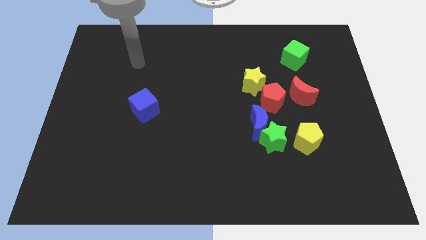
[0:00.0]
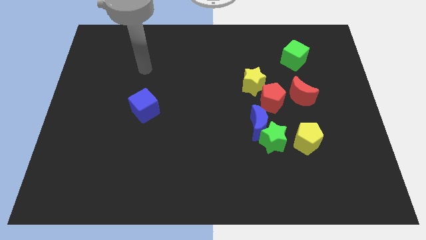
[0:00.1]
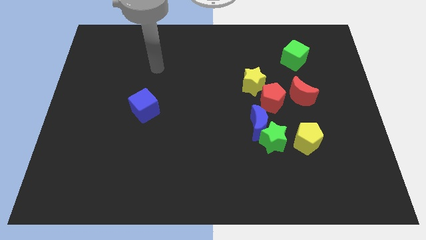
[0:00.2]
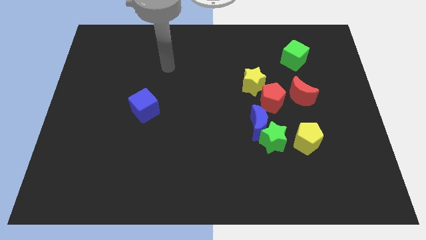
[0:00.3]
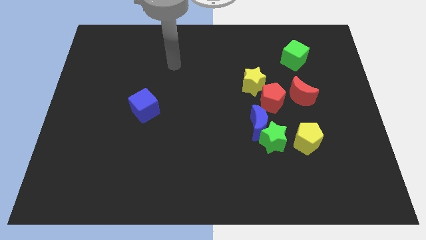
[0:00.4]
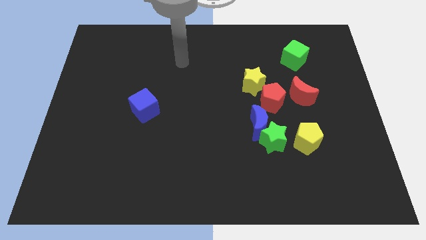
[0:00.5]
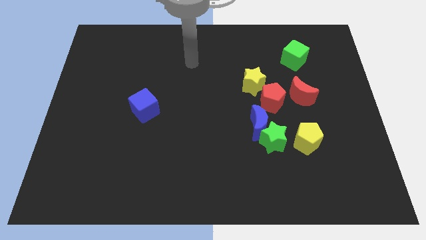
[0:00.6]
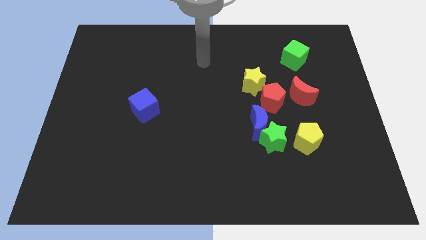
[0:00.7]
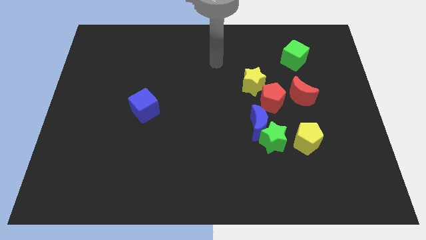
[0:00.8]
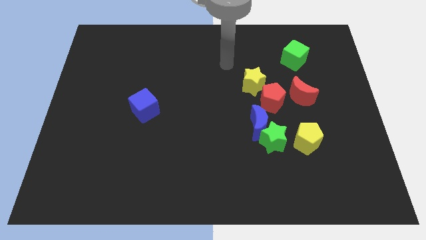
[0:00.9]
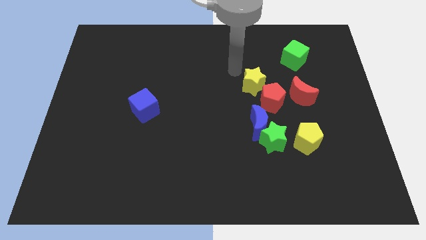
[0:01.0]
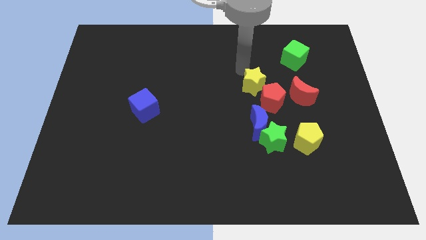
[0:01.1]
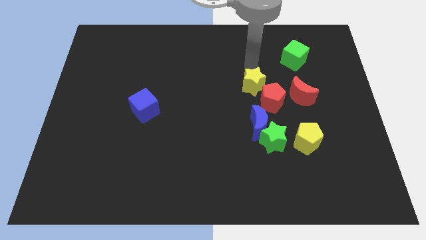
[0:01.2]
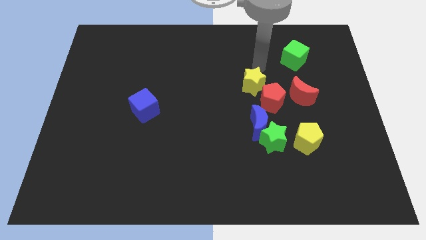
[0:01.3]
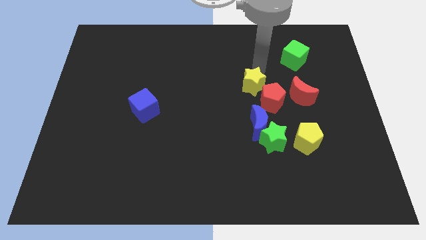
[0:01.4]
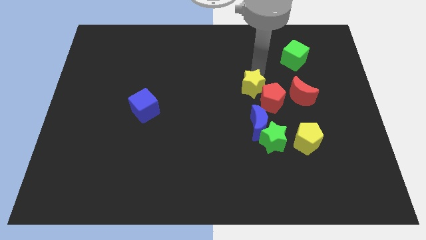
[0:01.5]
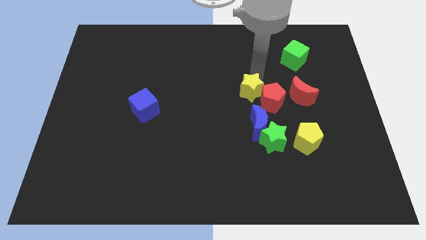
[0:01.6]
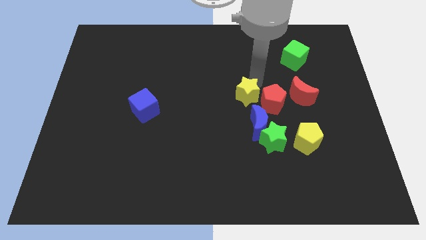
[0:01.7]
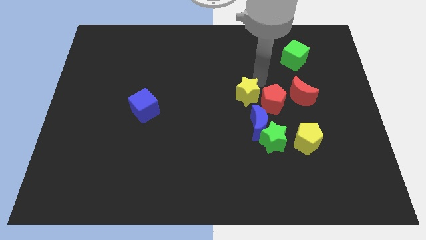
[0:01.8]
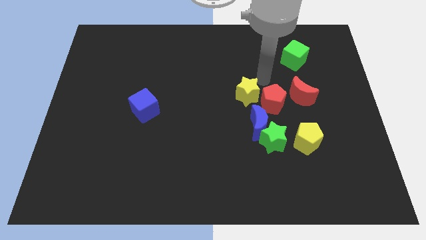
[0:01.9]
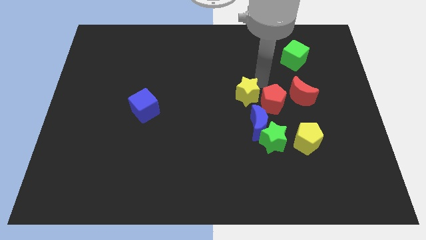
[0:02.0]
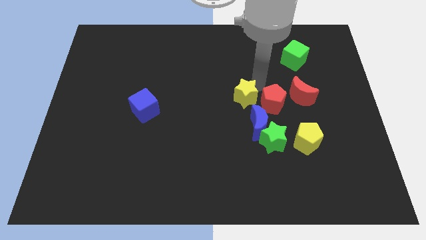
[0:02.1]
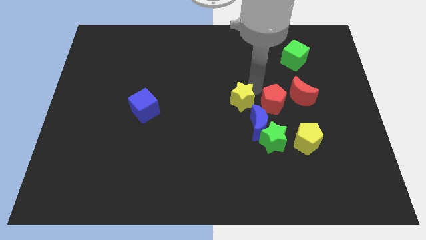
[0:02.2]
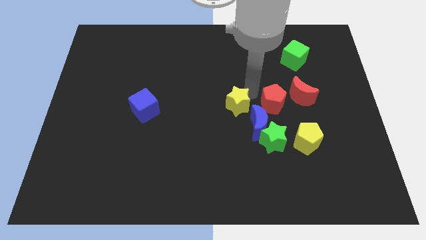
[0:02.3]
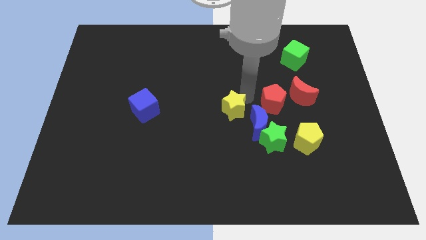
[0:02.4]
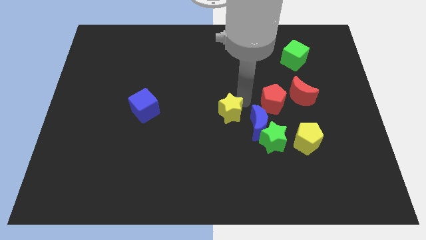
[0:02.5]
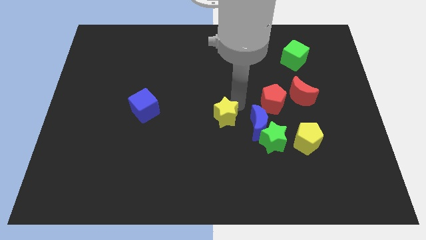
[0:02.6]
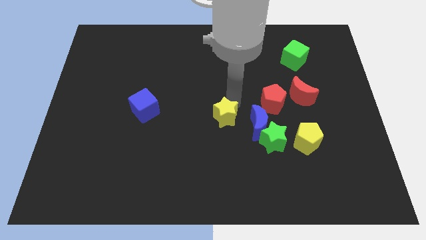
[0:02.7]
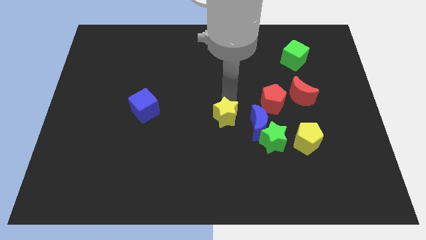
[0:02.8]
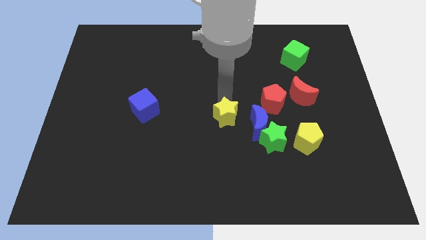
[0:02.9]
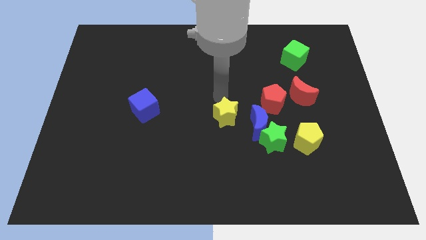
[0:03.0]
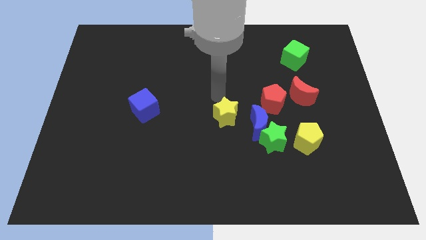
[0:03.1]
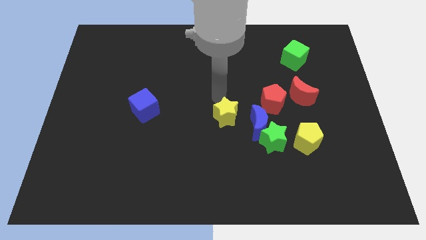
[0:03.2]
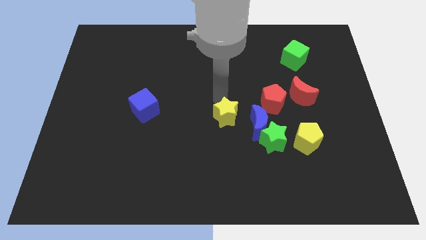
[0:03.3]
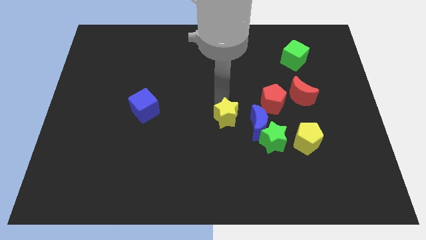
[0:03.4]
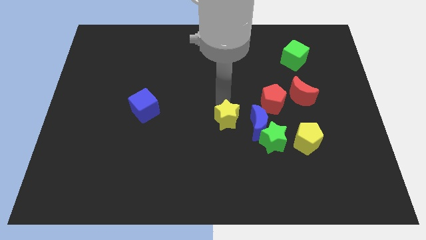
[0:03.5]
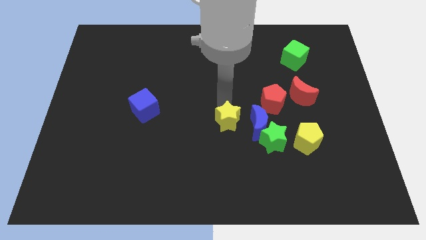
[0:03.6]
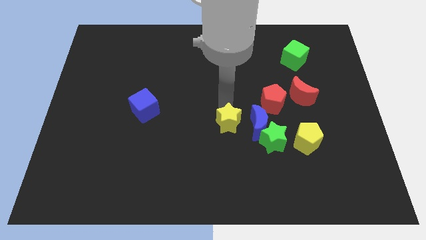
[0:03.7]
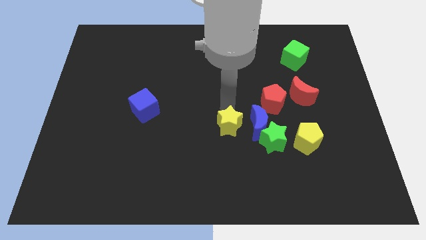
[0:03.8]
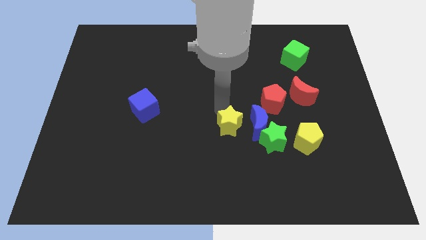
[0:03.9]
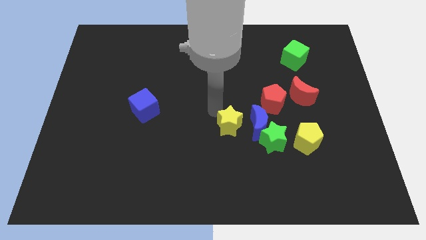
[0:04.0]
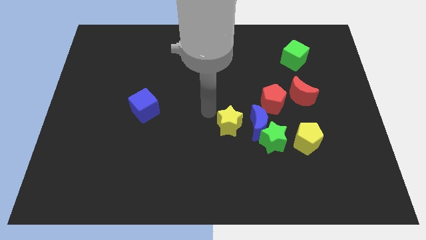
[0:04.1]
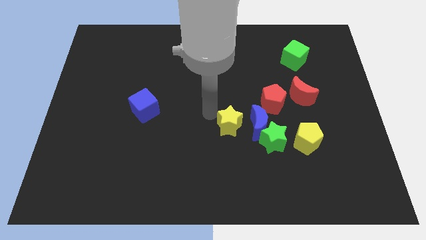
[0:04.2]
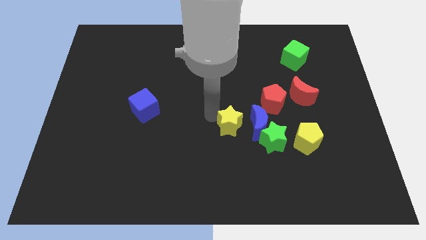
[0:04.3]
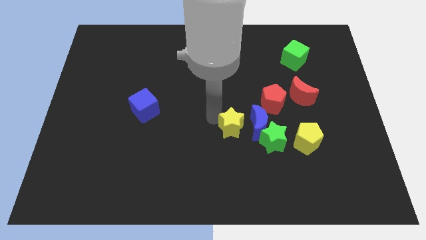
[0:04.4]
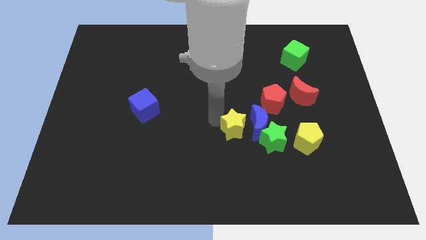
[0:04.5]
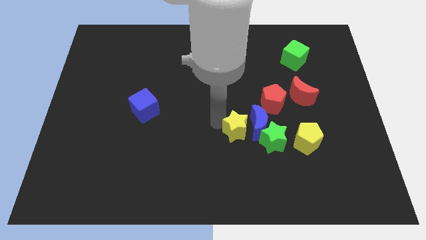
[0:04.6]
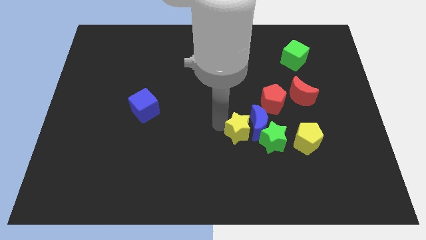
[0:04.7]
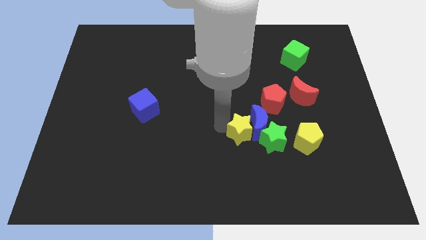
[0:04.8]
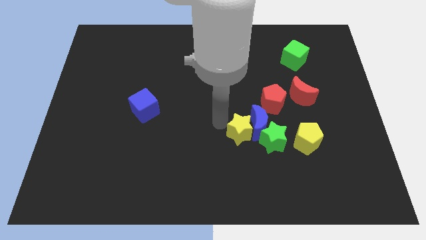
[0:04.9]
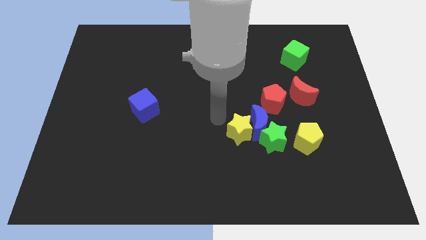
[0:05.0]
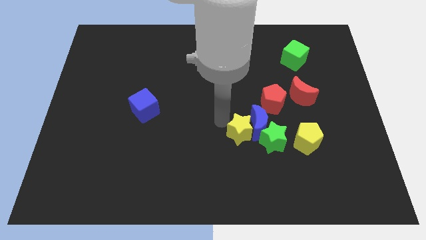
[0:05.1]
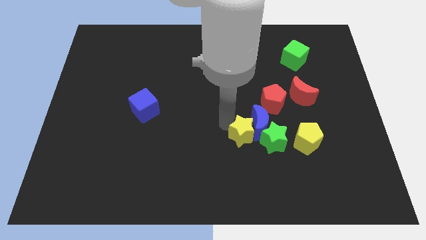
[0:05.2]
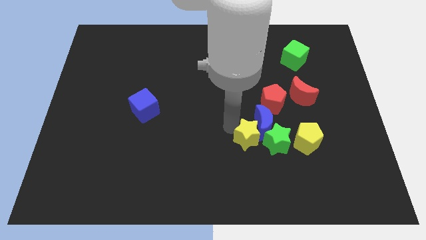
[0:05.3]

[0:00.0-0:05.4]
push the yellow star to the green star

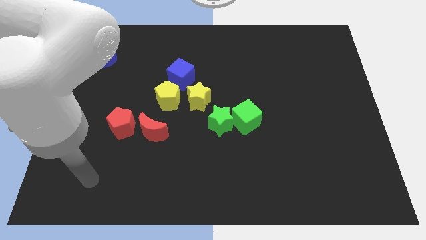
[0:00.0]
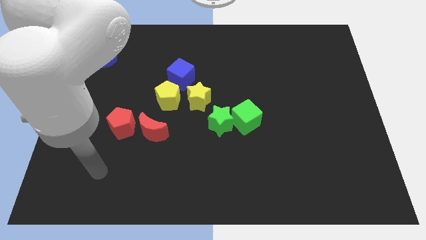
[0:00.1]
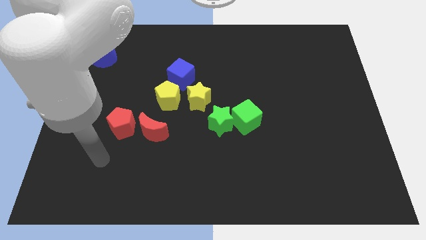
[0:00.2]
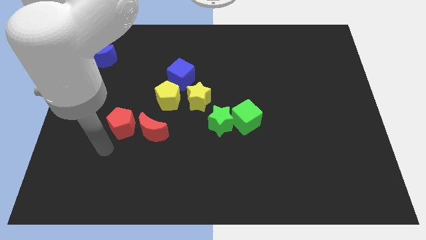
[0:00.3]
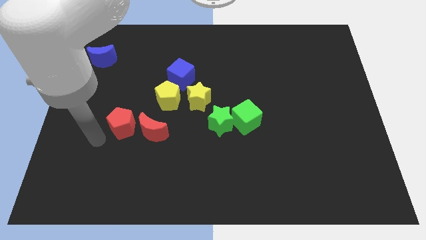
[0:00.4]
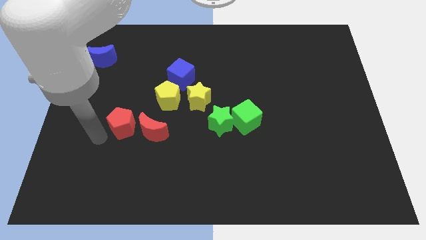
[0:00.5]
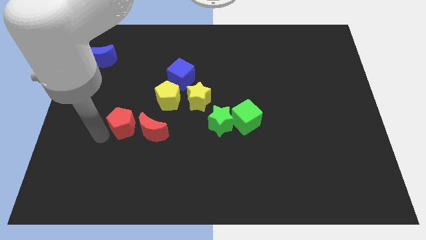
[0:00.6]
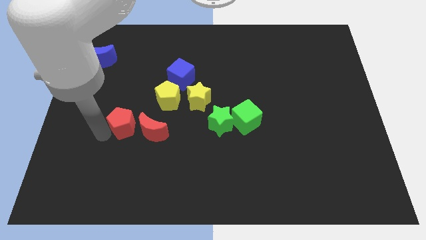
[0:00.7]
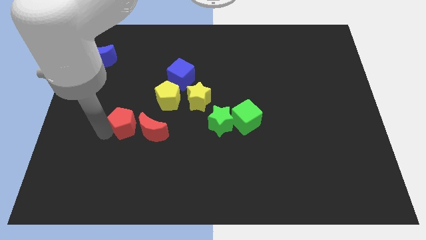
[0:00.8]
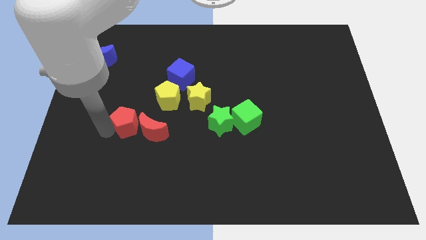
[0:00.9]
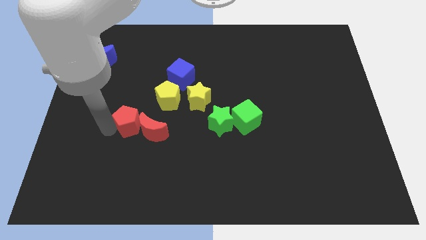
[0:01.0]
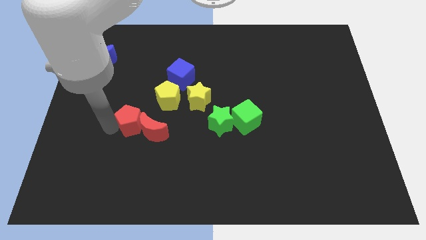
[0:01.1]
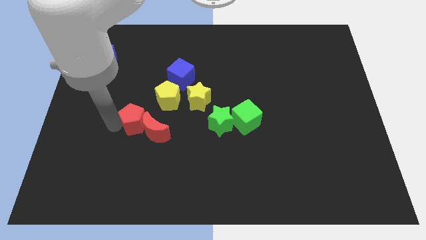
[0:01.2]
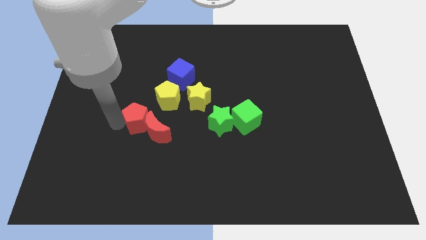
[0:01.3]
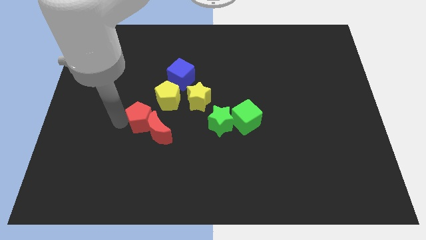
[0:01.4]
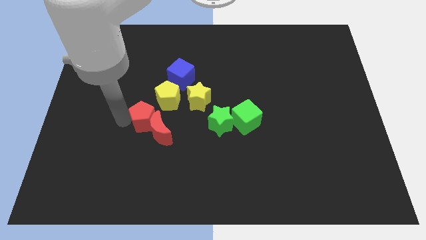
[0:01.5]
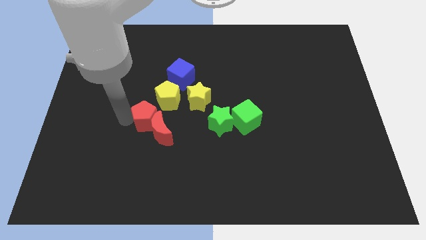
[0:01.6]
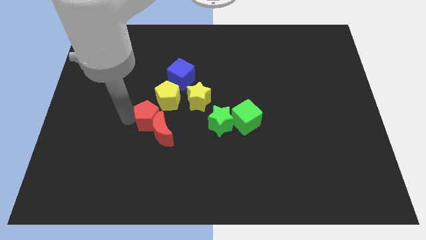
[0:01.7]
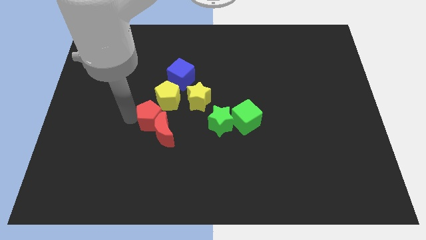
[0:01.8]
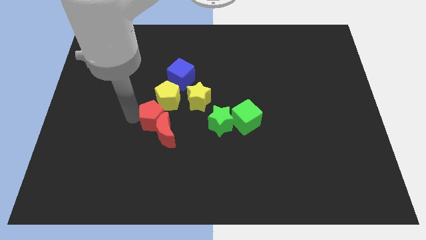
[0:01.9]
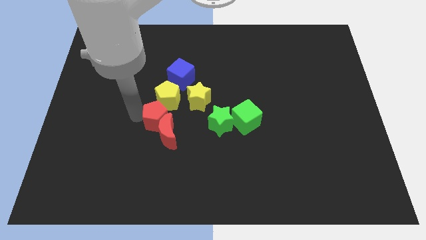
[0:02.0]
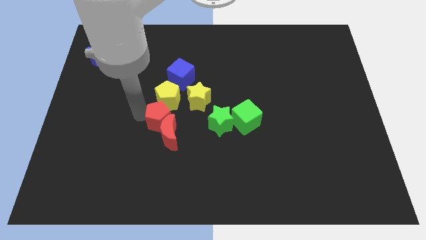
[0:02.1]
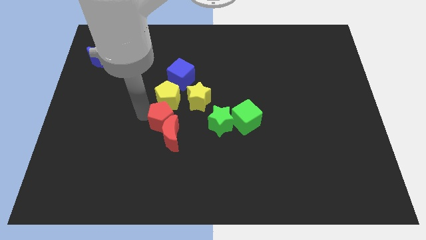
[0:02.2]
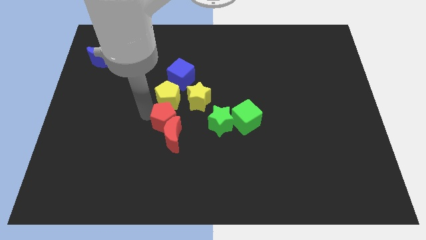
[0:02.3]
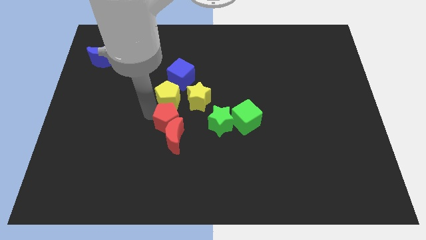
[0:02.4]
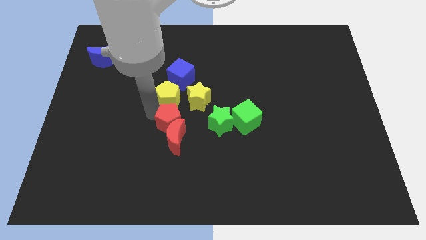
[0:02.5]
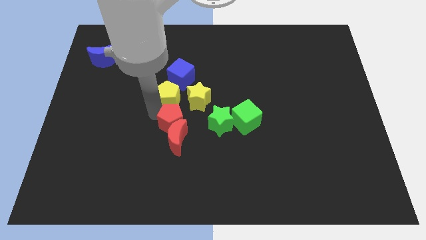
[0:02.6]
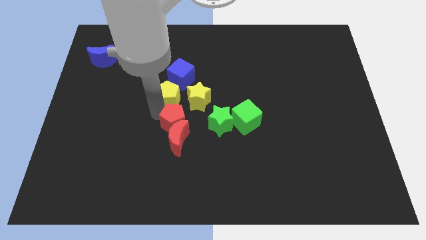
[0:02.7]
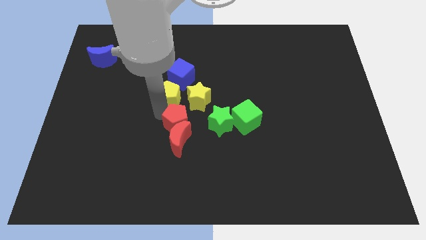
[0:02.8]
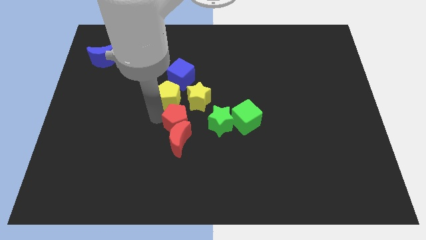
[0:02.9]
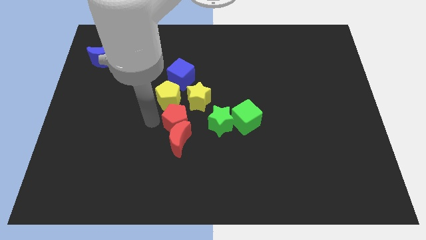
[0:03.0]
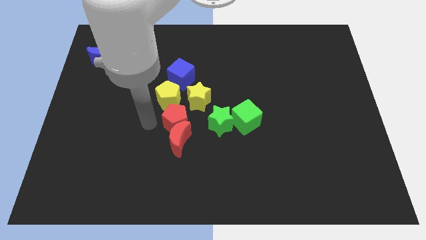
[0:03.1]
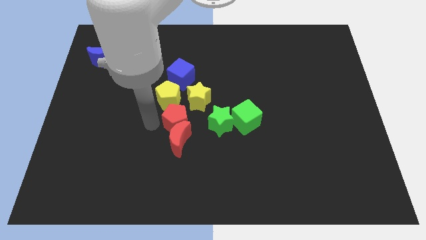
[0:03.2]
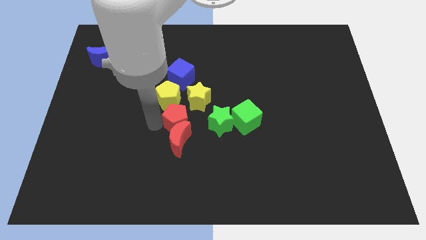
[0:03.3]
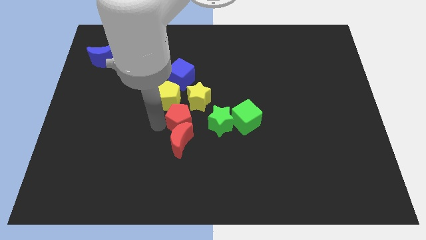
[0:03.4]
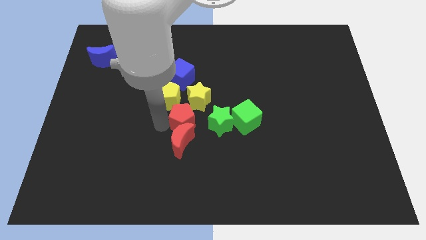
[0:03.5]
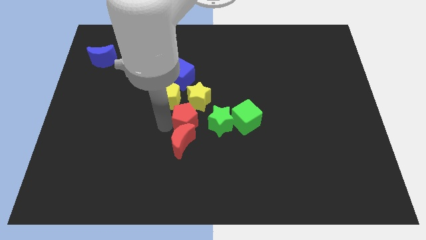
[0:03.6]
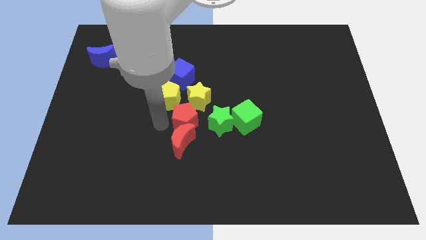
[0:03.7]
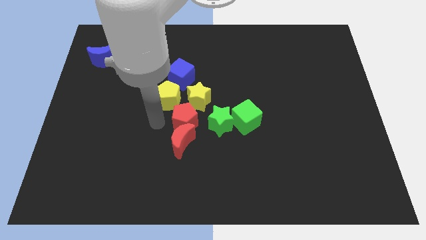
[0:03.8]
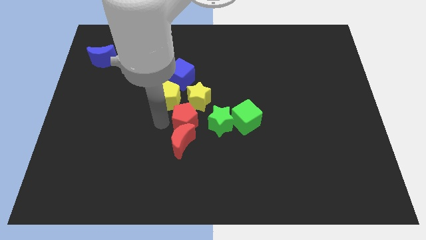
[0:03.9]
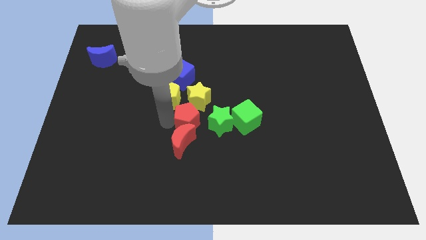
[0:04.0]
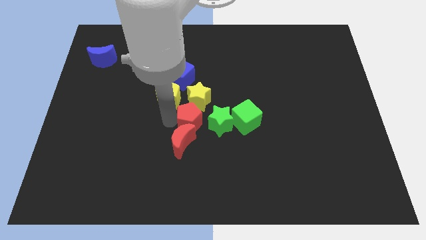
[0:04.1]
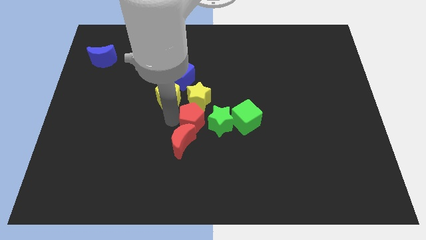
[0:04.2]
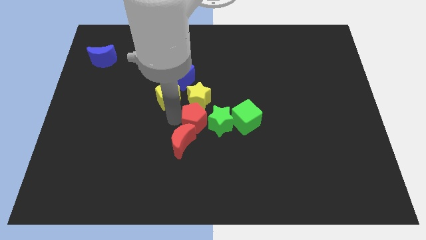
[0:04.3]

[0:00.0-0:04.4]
put the red pentagon to the green star
